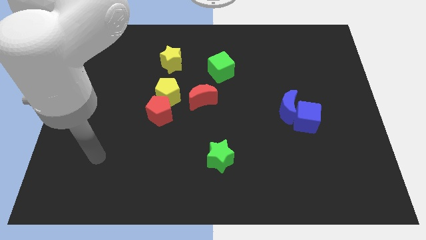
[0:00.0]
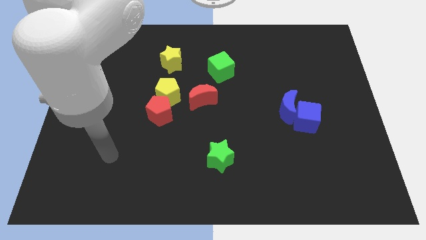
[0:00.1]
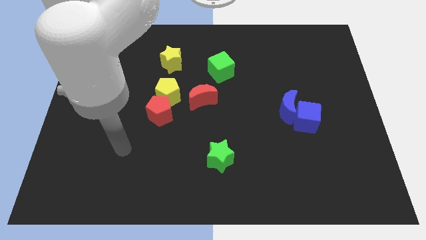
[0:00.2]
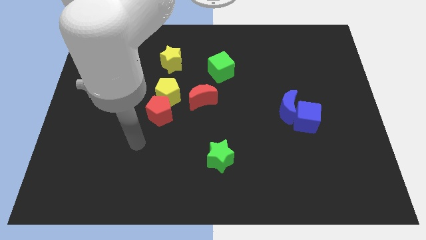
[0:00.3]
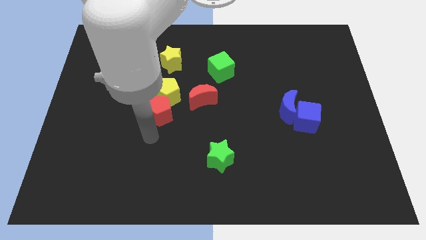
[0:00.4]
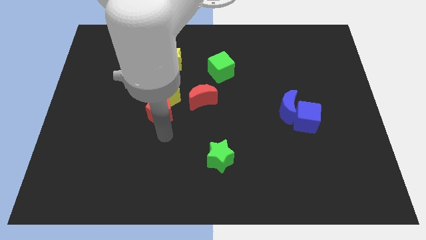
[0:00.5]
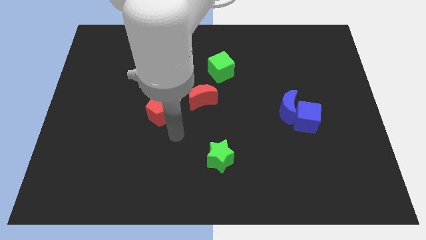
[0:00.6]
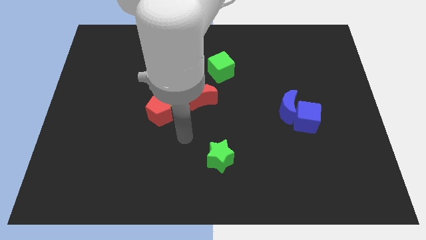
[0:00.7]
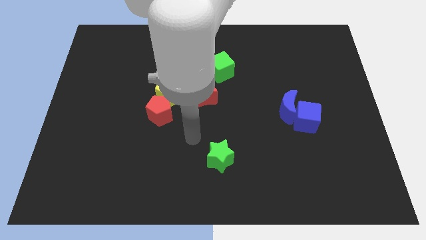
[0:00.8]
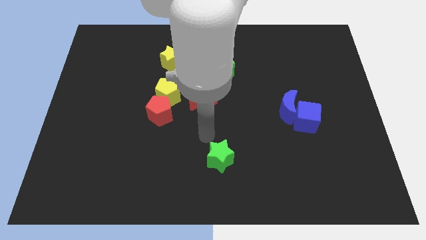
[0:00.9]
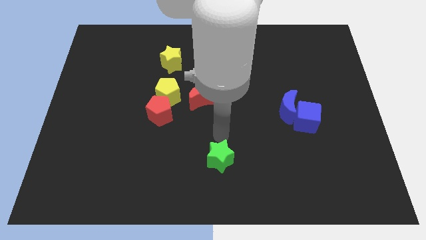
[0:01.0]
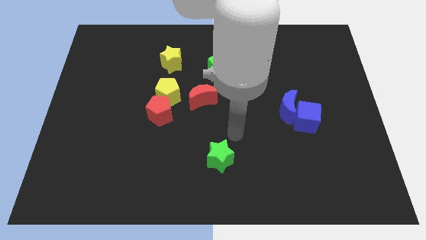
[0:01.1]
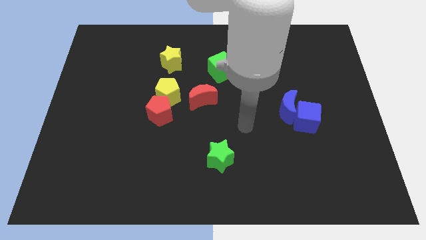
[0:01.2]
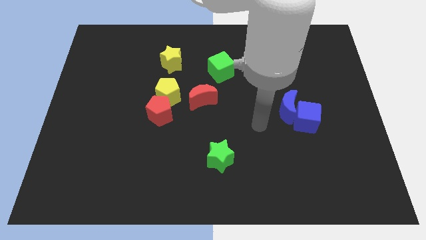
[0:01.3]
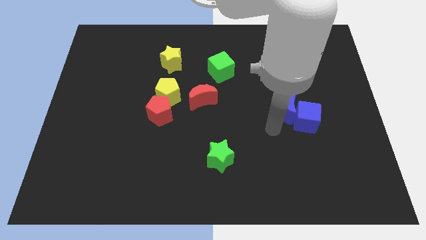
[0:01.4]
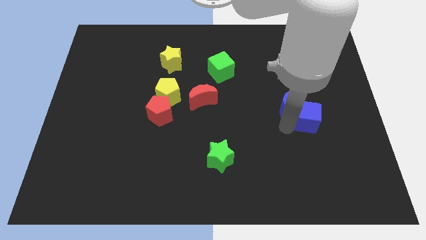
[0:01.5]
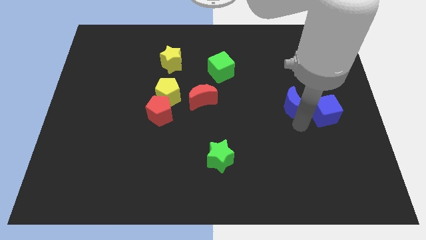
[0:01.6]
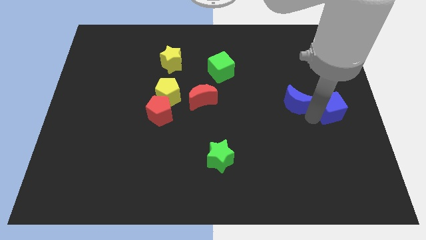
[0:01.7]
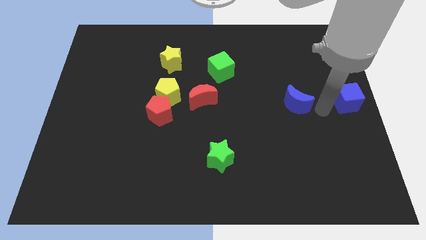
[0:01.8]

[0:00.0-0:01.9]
move the blue moon away from the blue cube

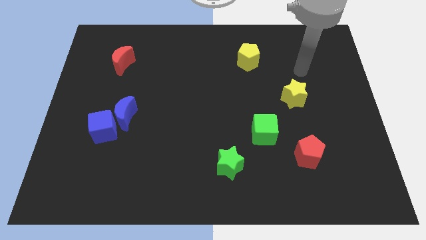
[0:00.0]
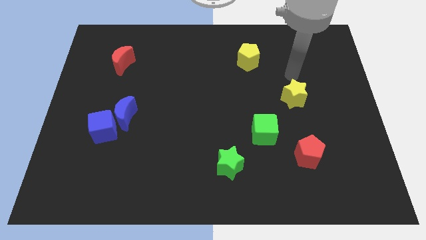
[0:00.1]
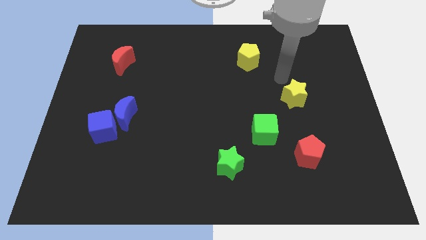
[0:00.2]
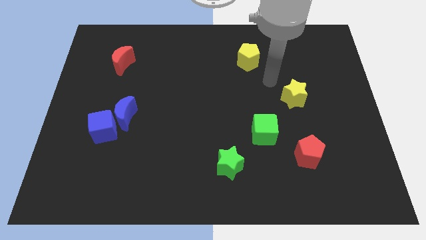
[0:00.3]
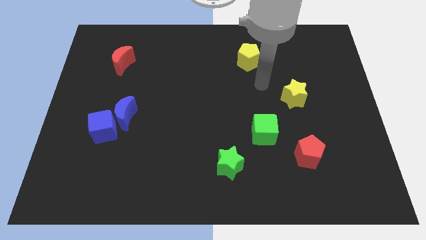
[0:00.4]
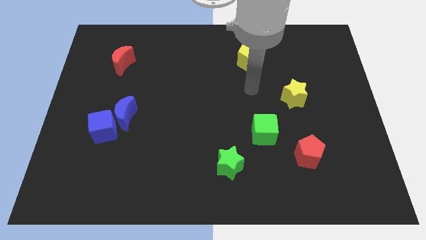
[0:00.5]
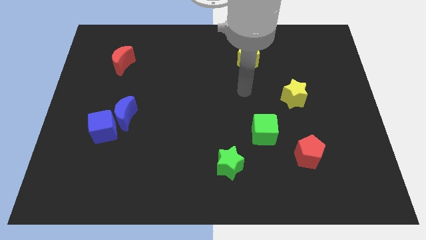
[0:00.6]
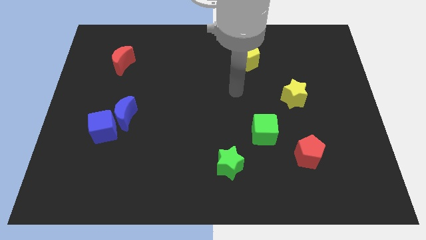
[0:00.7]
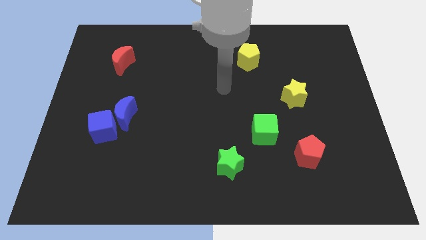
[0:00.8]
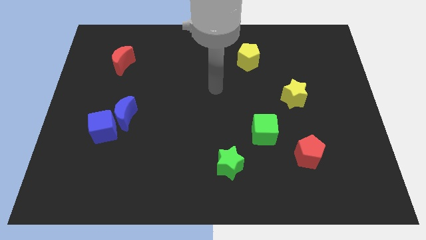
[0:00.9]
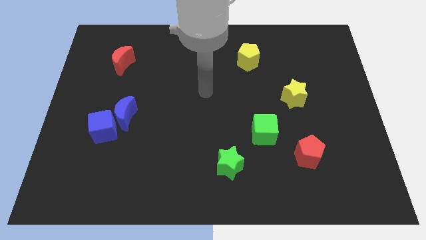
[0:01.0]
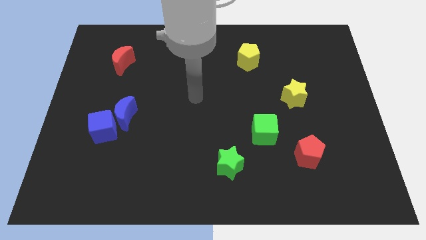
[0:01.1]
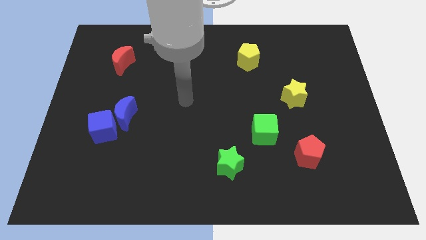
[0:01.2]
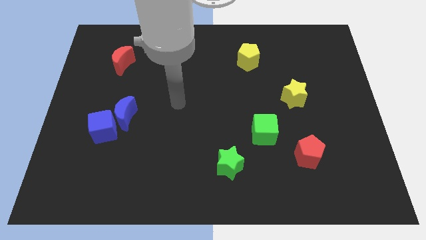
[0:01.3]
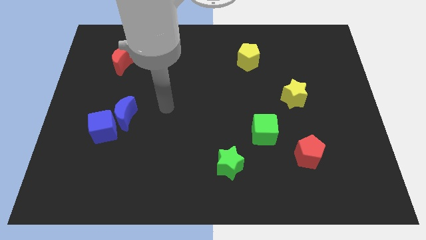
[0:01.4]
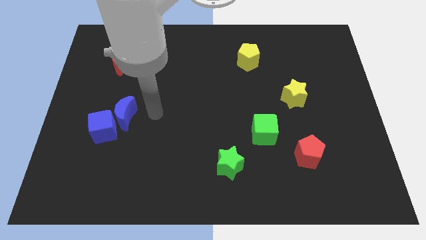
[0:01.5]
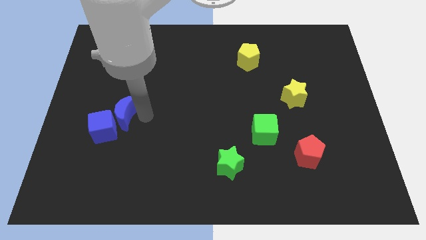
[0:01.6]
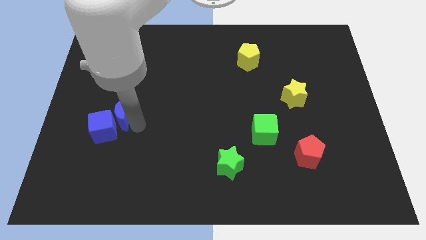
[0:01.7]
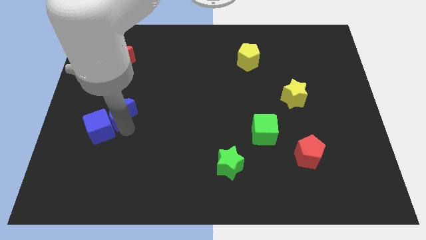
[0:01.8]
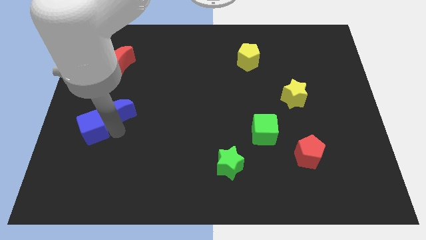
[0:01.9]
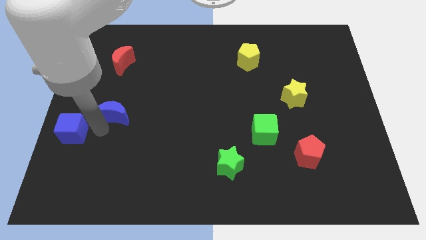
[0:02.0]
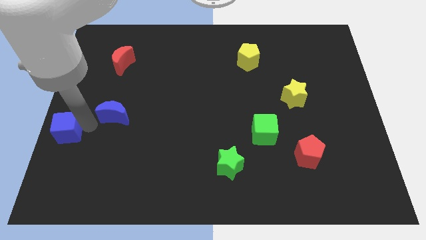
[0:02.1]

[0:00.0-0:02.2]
pull the blue moon apart from the blue cube

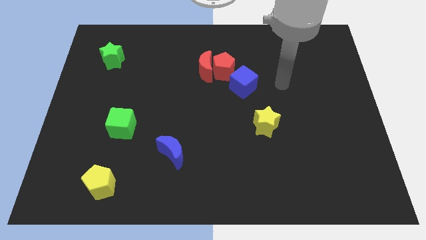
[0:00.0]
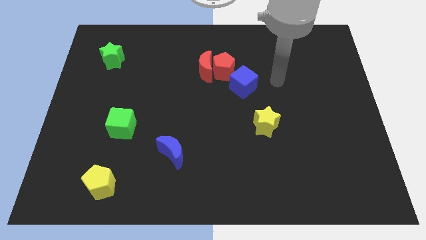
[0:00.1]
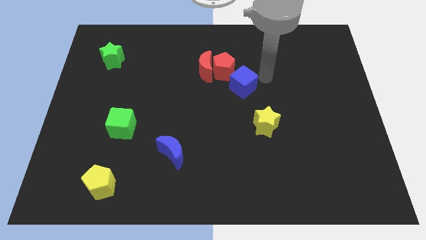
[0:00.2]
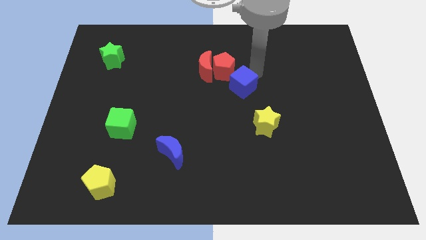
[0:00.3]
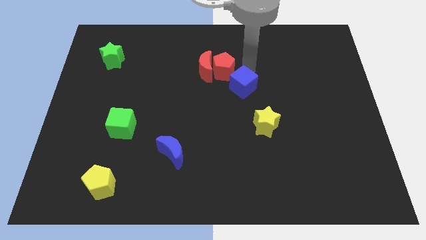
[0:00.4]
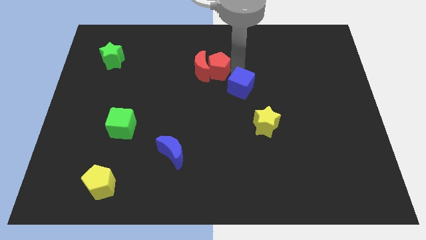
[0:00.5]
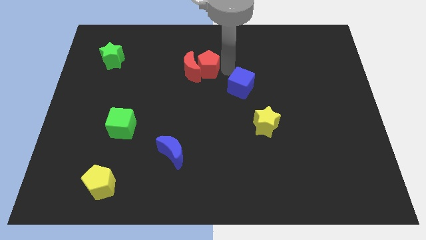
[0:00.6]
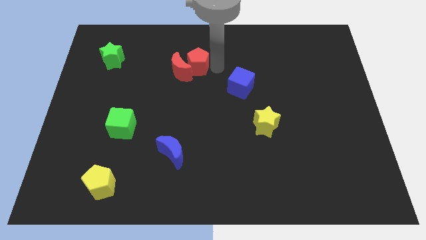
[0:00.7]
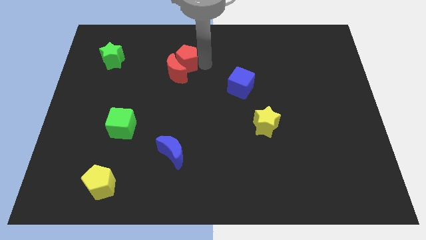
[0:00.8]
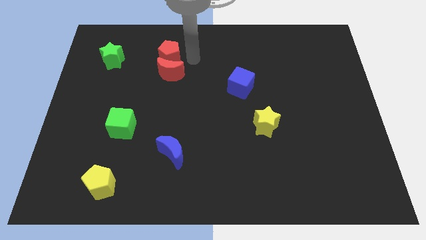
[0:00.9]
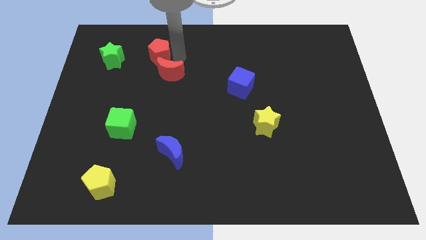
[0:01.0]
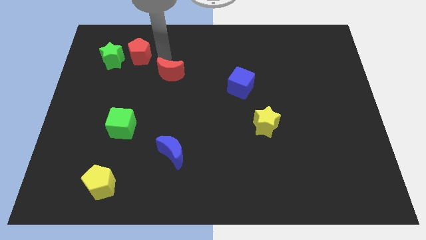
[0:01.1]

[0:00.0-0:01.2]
move the red moon away from the red pentagon

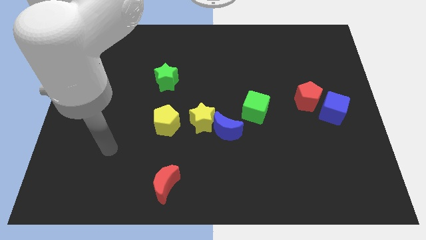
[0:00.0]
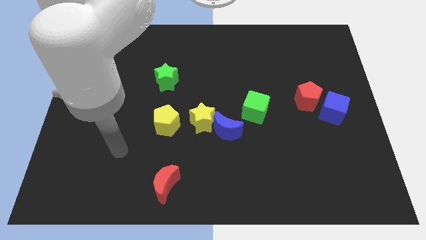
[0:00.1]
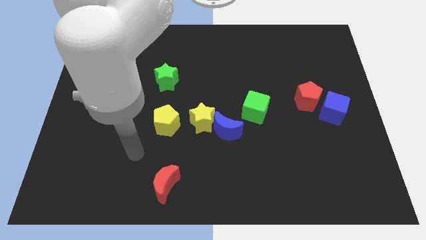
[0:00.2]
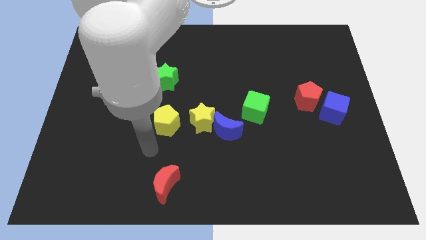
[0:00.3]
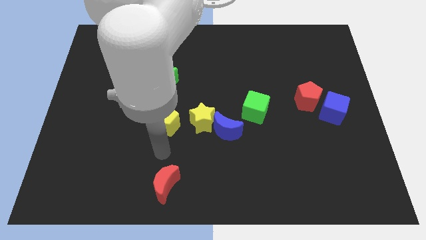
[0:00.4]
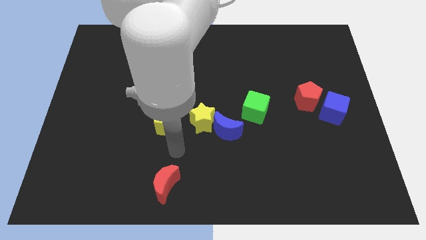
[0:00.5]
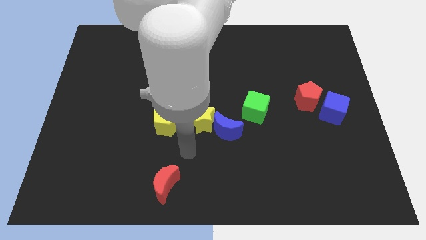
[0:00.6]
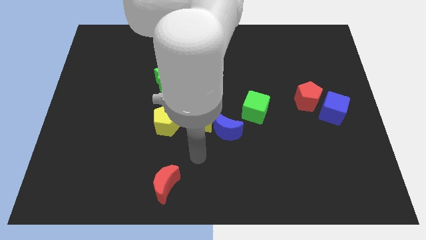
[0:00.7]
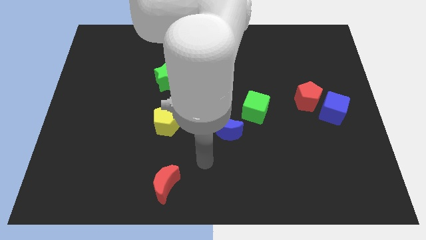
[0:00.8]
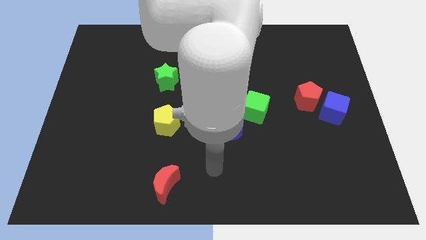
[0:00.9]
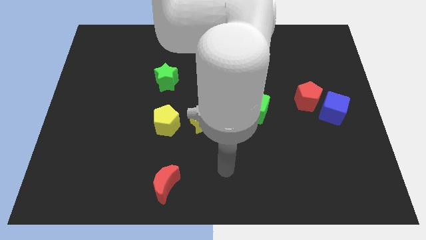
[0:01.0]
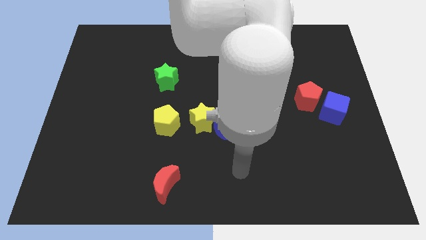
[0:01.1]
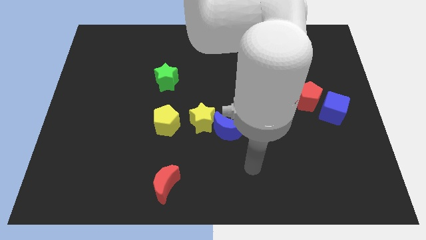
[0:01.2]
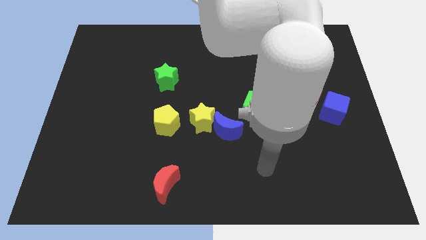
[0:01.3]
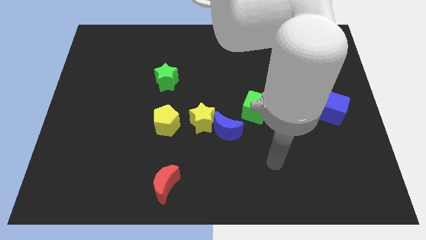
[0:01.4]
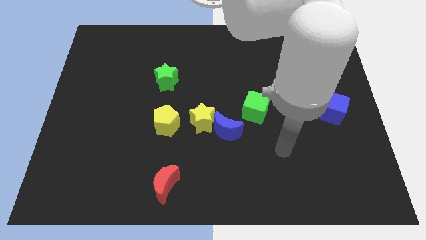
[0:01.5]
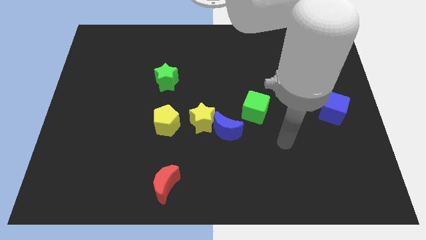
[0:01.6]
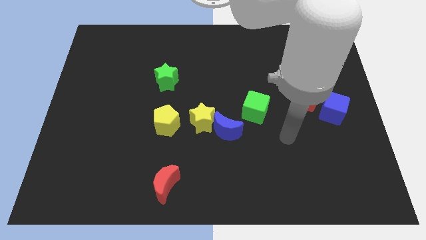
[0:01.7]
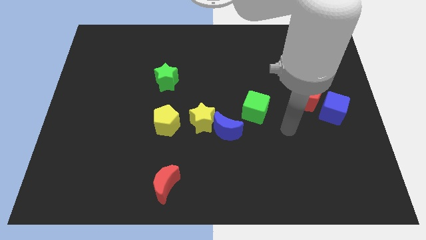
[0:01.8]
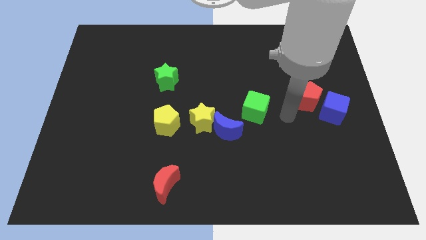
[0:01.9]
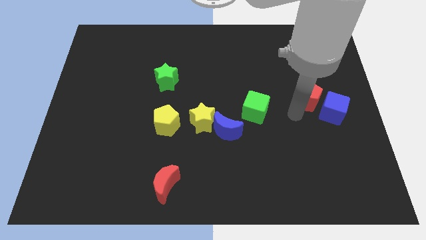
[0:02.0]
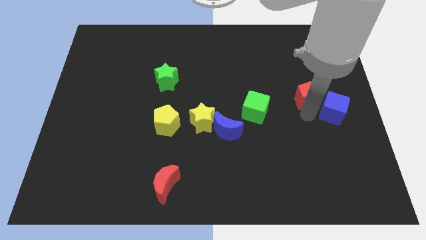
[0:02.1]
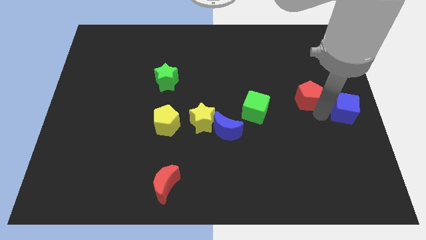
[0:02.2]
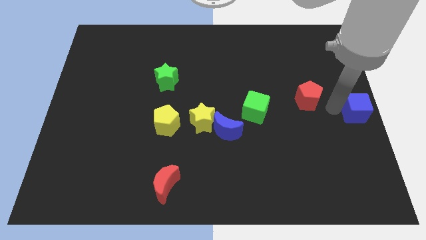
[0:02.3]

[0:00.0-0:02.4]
separate the red pentagon from the blue cube

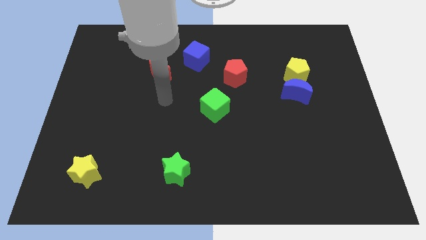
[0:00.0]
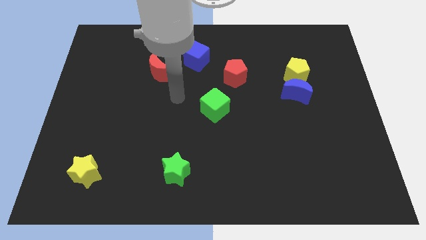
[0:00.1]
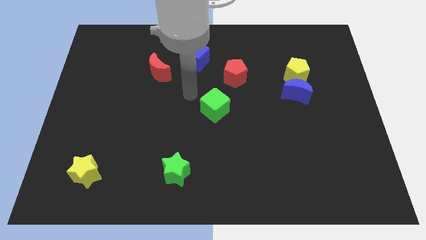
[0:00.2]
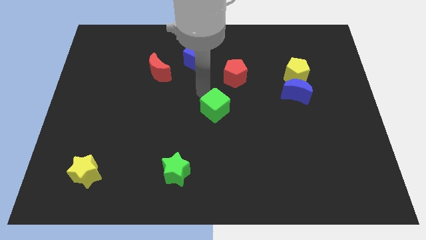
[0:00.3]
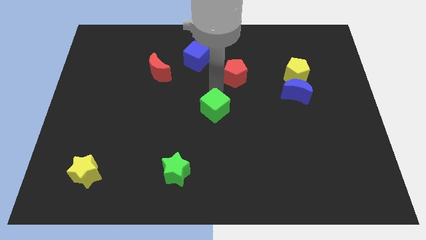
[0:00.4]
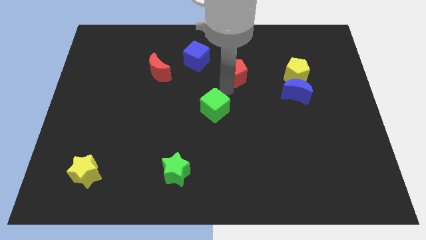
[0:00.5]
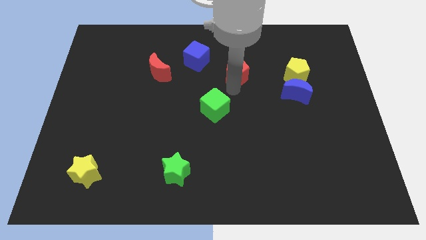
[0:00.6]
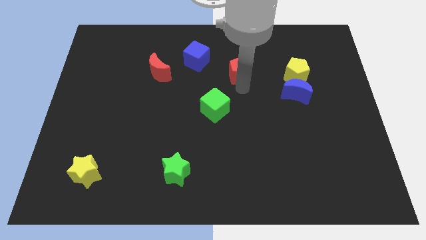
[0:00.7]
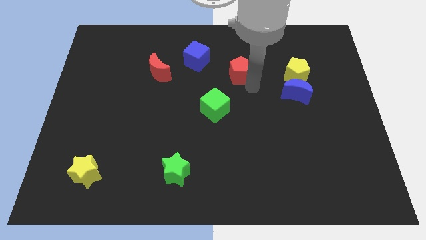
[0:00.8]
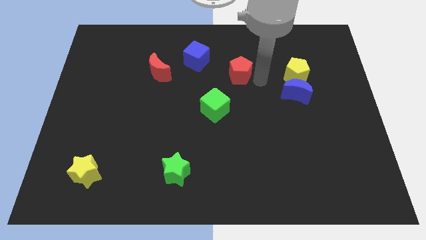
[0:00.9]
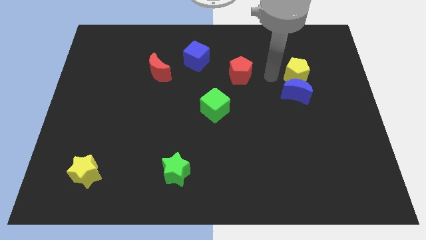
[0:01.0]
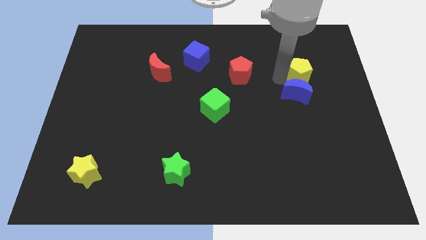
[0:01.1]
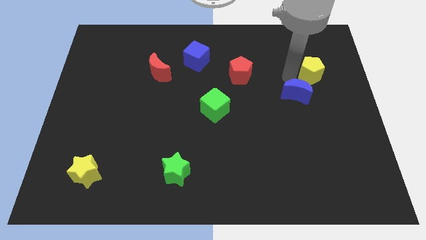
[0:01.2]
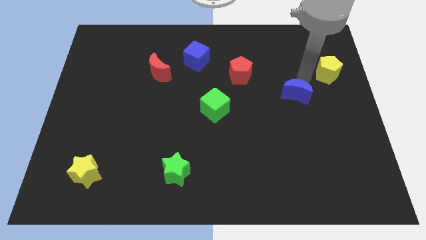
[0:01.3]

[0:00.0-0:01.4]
separate the blue moon from the yellow pentagon

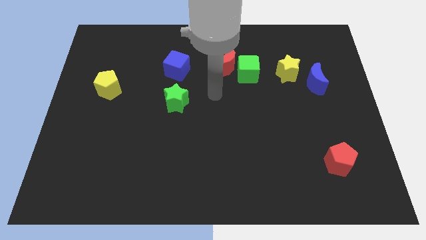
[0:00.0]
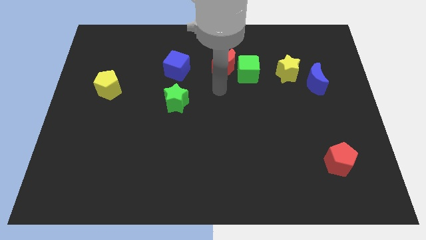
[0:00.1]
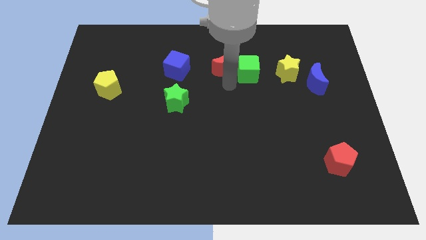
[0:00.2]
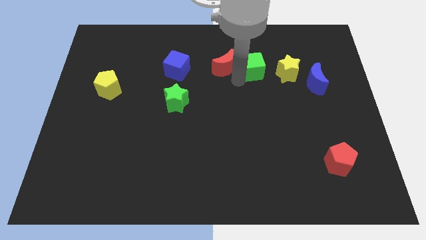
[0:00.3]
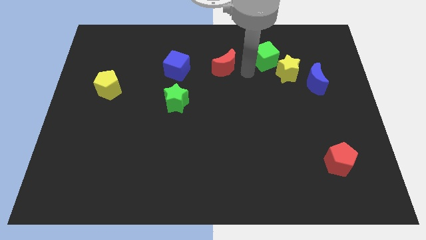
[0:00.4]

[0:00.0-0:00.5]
separate the red moon from the green cube
